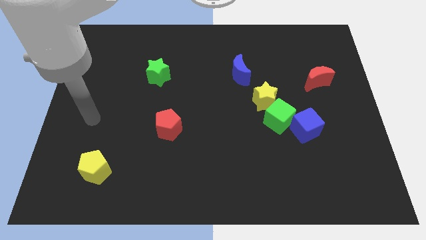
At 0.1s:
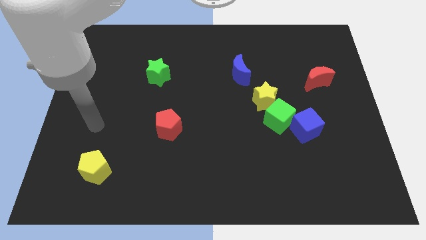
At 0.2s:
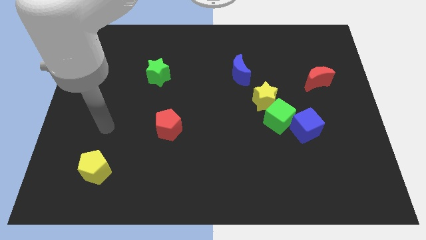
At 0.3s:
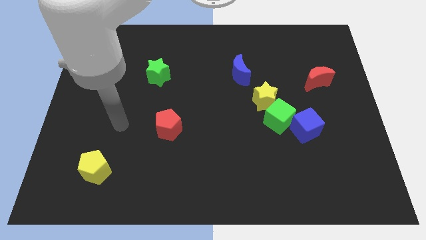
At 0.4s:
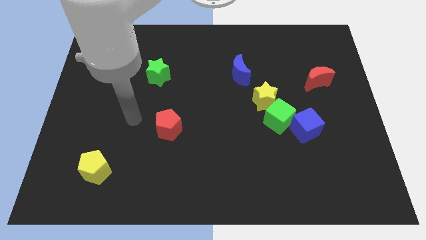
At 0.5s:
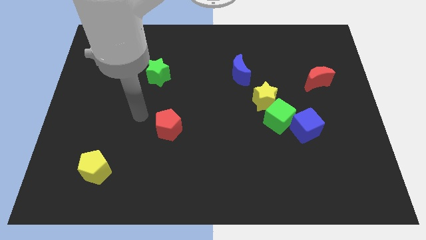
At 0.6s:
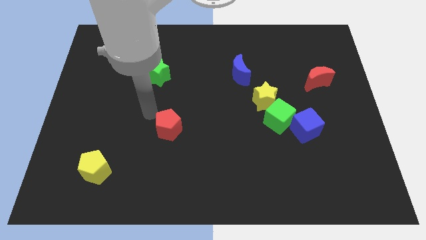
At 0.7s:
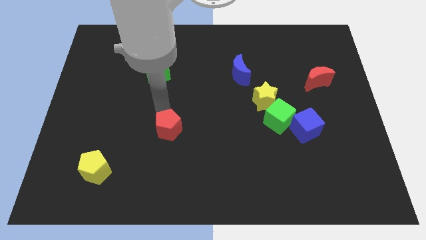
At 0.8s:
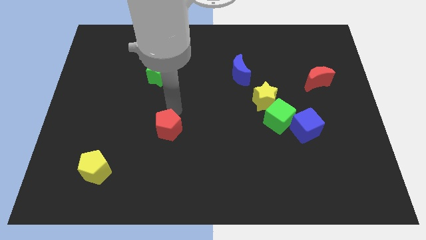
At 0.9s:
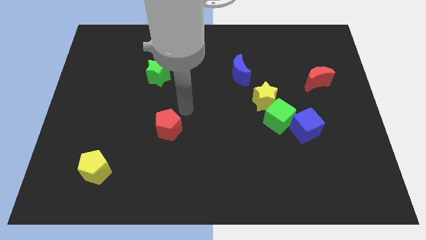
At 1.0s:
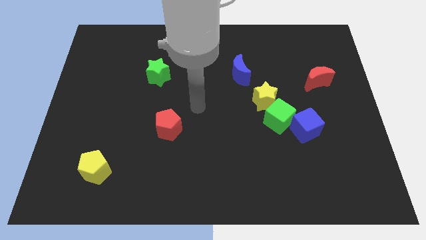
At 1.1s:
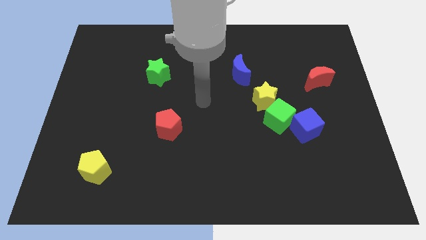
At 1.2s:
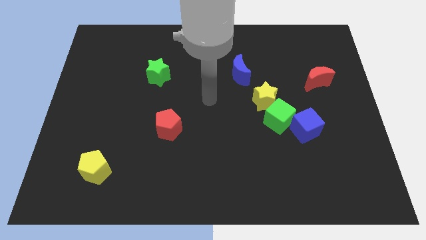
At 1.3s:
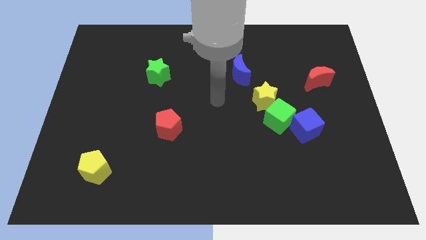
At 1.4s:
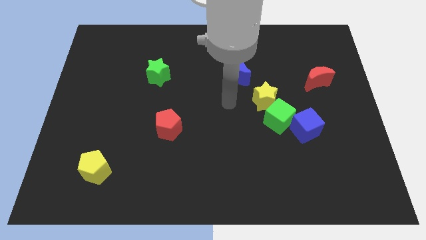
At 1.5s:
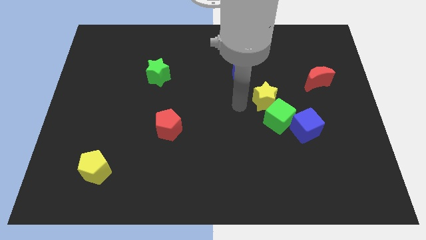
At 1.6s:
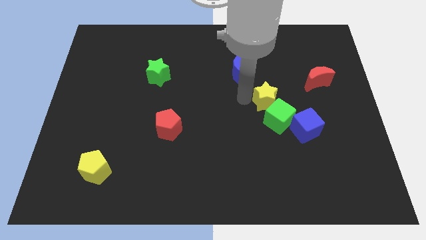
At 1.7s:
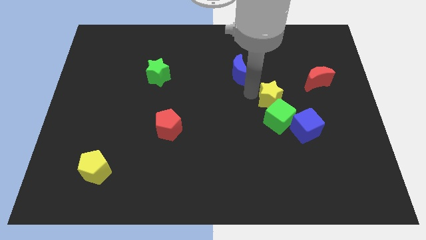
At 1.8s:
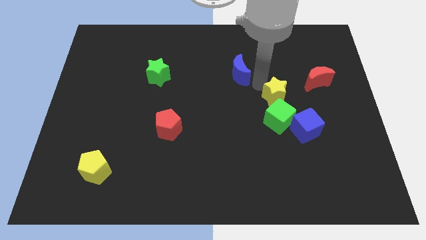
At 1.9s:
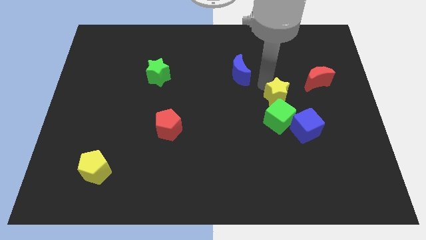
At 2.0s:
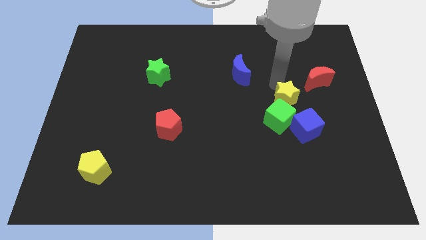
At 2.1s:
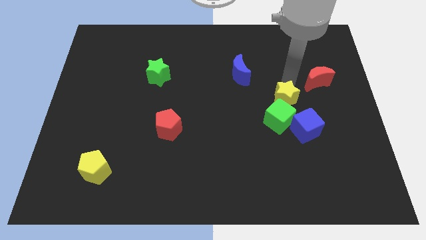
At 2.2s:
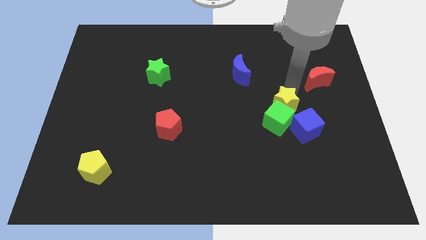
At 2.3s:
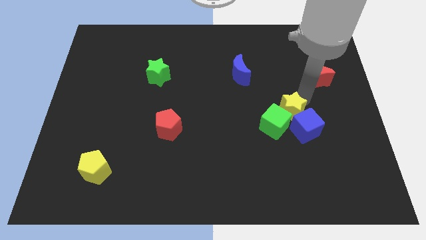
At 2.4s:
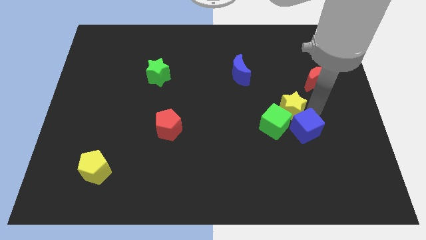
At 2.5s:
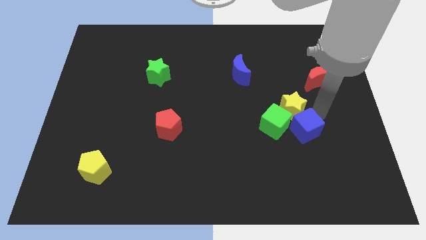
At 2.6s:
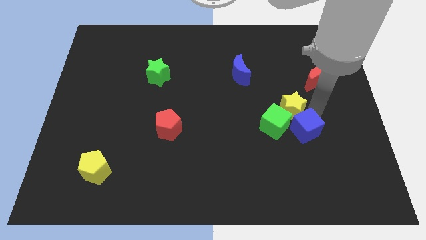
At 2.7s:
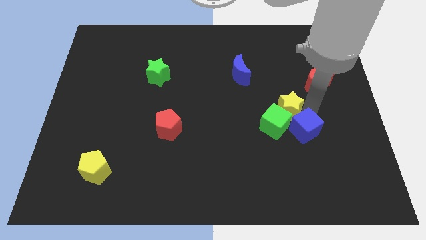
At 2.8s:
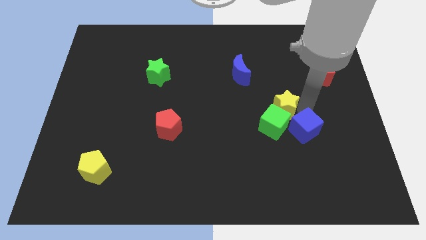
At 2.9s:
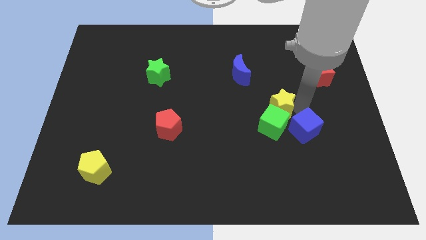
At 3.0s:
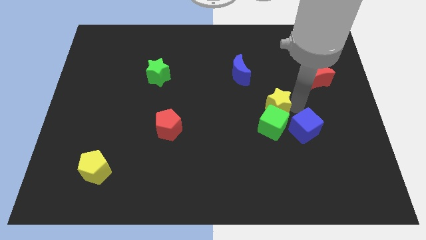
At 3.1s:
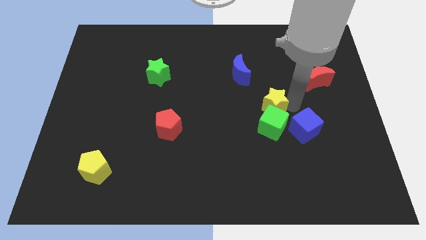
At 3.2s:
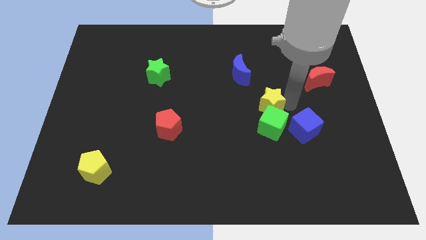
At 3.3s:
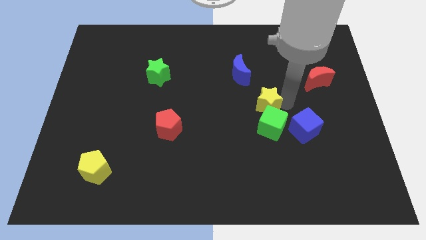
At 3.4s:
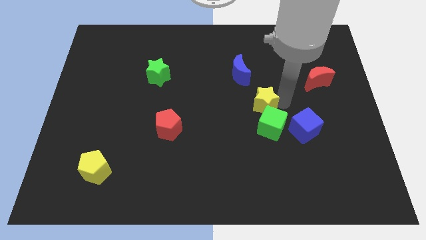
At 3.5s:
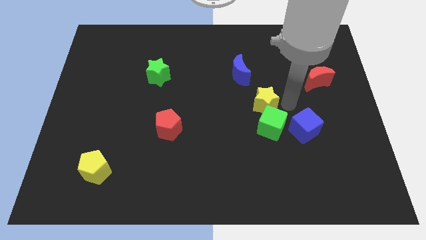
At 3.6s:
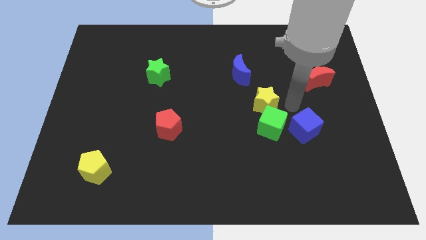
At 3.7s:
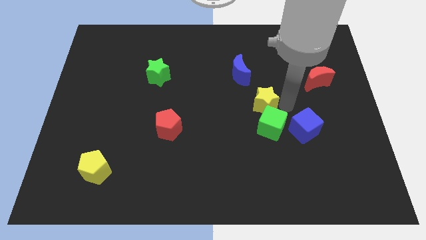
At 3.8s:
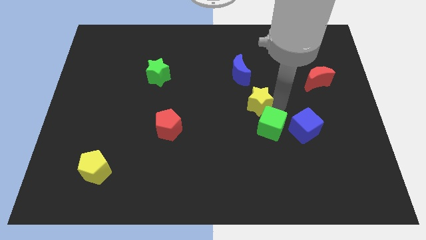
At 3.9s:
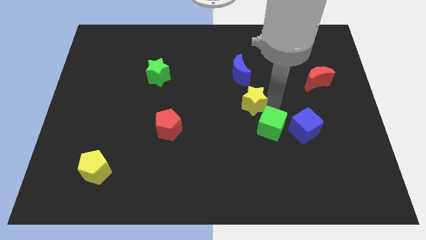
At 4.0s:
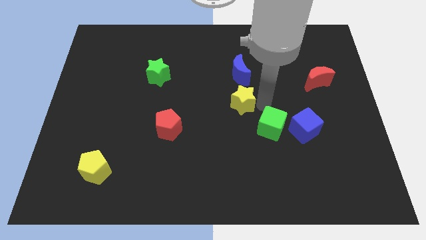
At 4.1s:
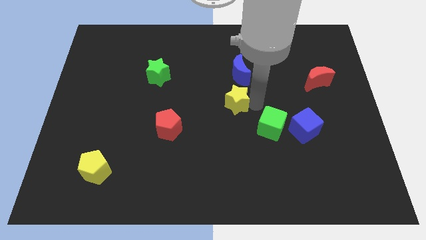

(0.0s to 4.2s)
push the yellow star to the left a little bit

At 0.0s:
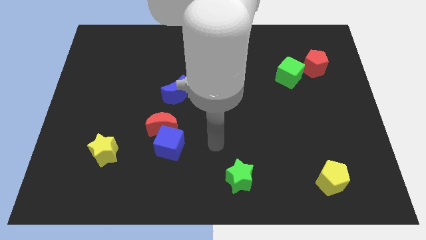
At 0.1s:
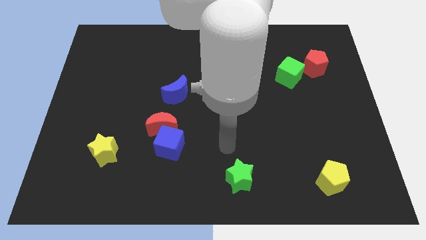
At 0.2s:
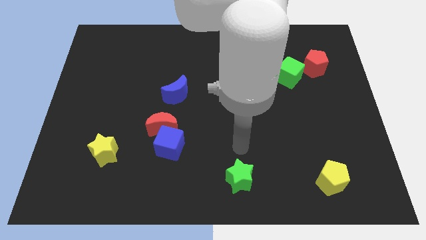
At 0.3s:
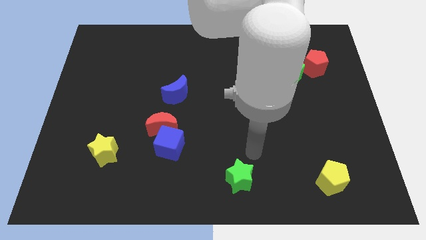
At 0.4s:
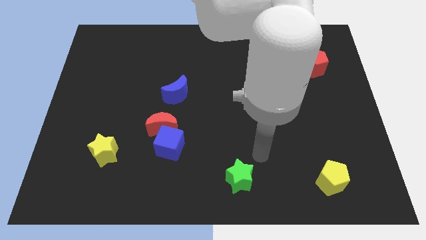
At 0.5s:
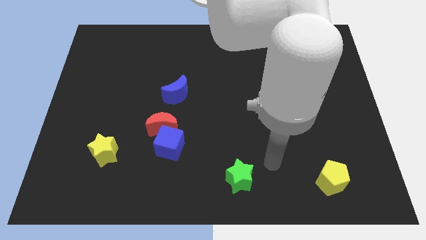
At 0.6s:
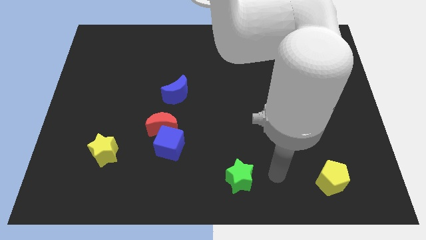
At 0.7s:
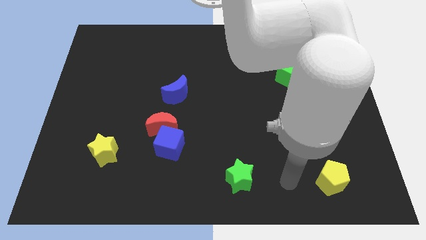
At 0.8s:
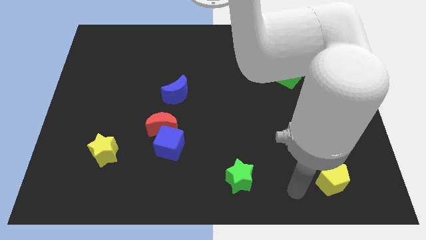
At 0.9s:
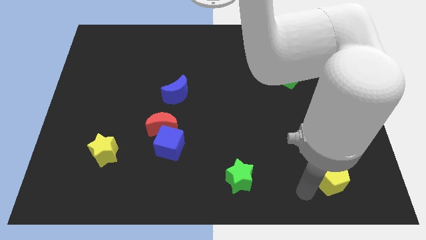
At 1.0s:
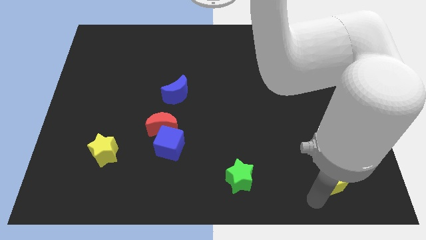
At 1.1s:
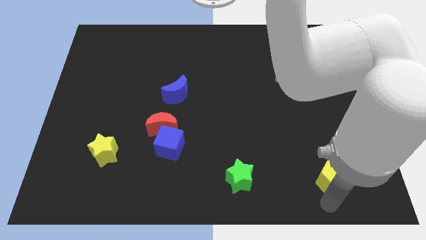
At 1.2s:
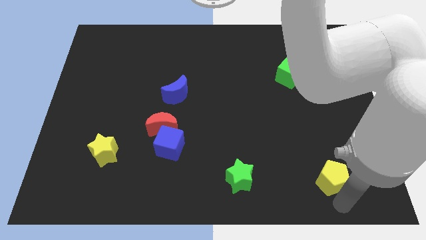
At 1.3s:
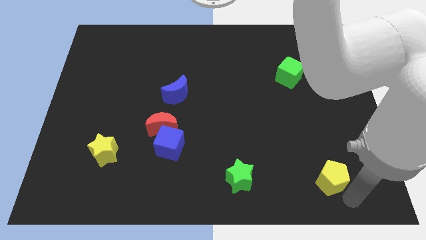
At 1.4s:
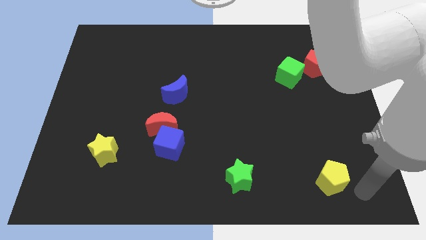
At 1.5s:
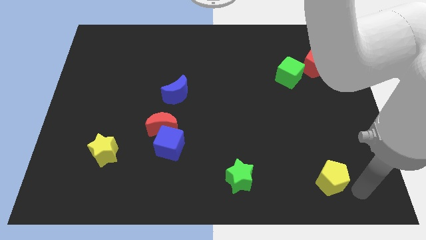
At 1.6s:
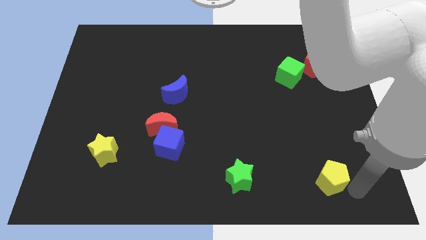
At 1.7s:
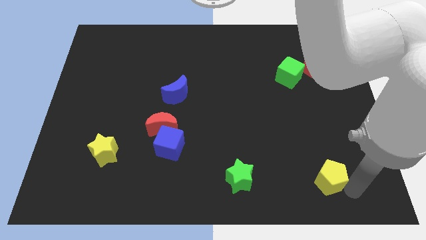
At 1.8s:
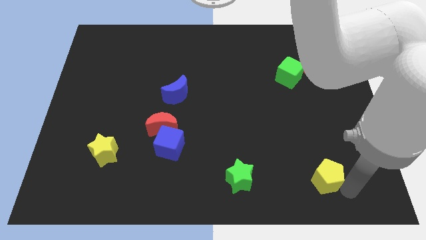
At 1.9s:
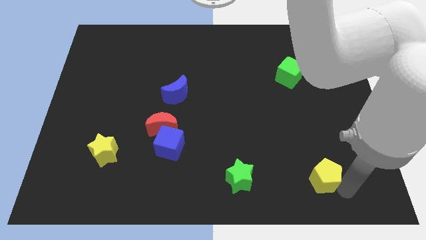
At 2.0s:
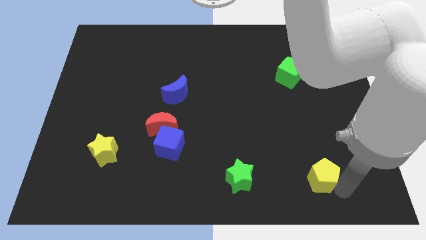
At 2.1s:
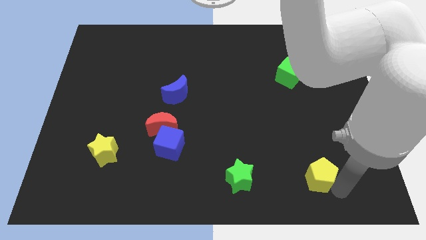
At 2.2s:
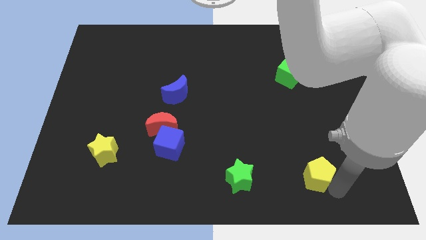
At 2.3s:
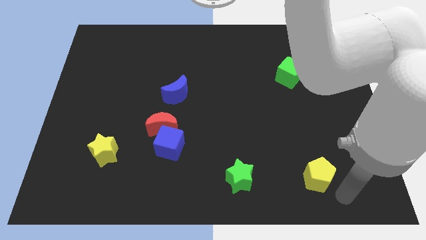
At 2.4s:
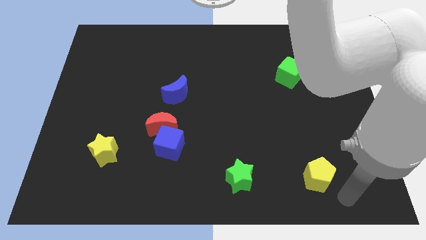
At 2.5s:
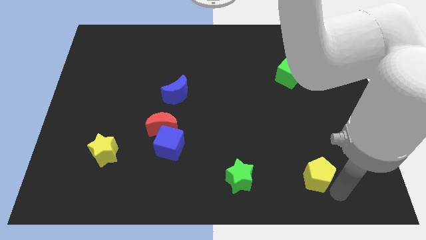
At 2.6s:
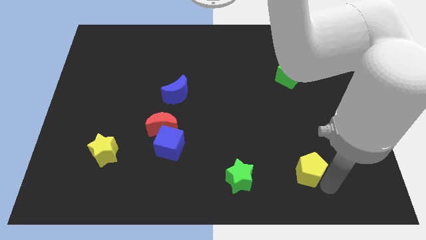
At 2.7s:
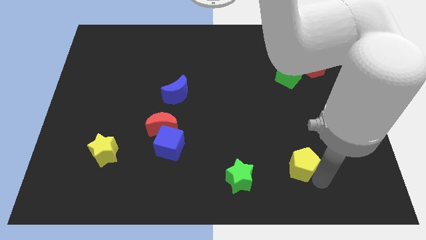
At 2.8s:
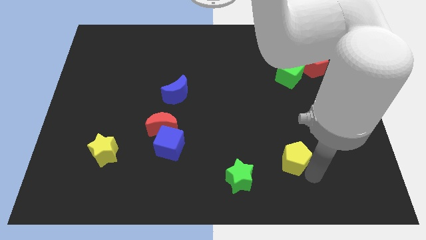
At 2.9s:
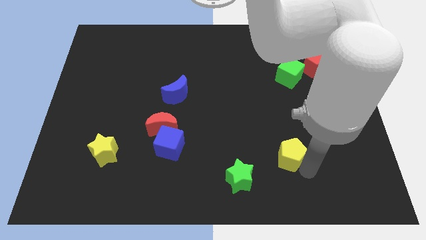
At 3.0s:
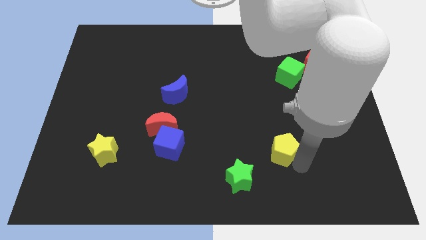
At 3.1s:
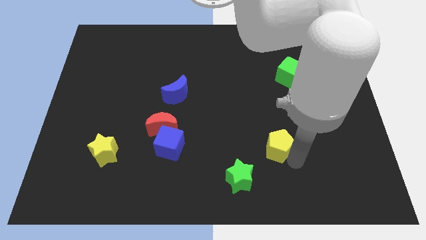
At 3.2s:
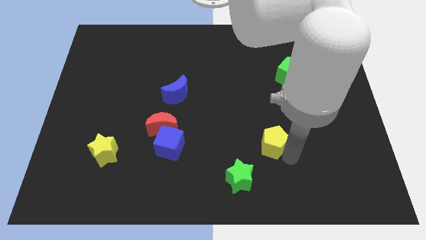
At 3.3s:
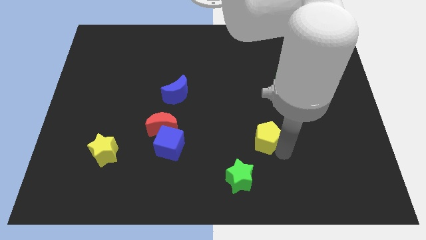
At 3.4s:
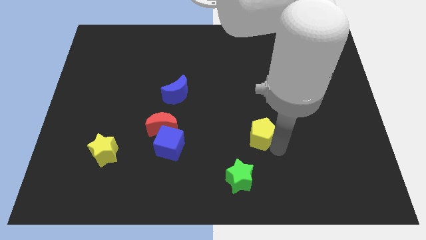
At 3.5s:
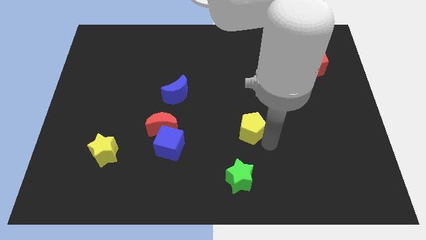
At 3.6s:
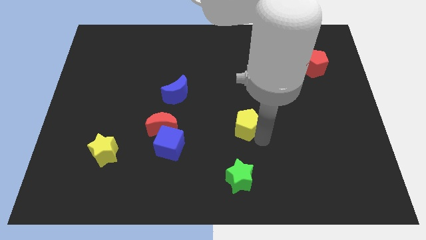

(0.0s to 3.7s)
push the yellow pentagon upwards and to the left

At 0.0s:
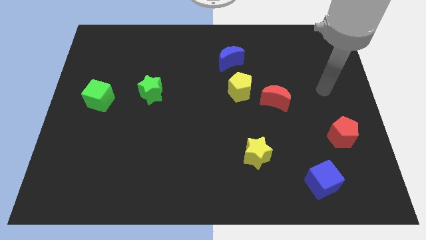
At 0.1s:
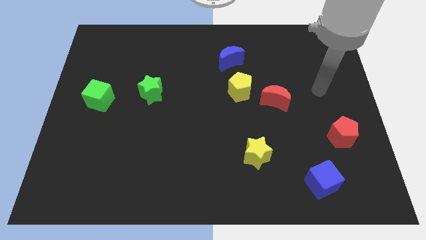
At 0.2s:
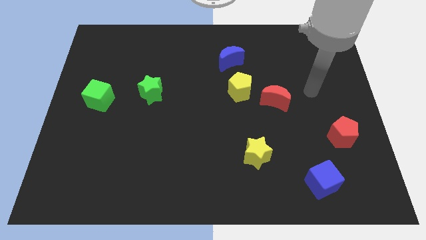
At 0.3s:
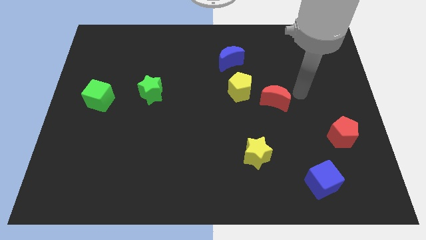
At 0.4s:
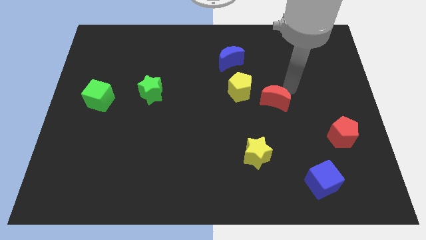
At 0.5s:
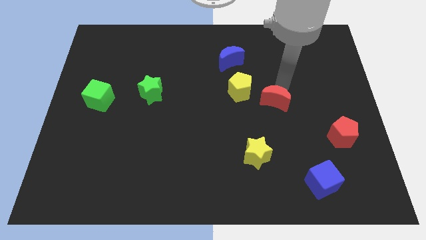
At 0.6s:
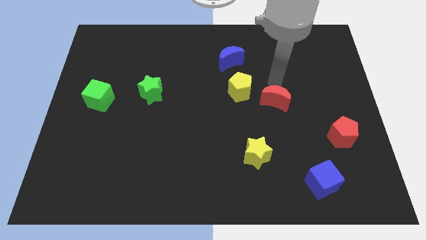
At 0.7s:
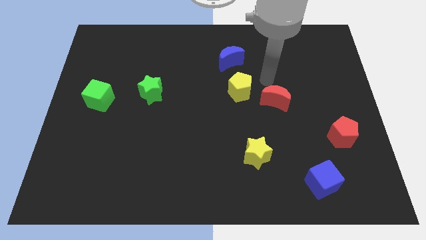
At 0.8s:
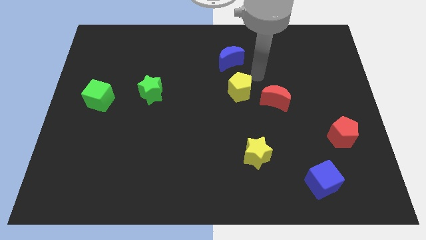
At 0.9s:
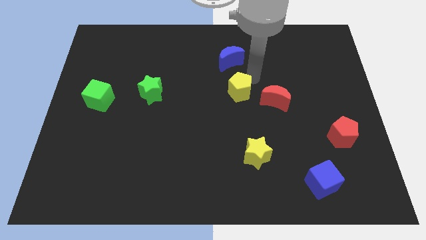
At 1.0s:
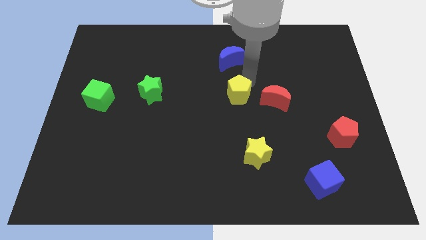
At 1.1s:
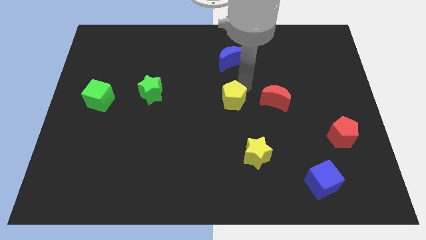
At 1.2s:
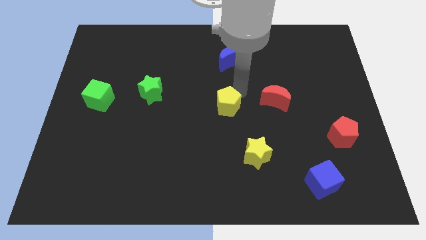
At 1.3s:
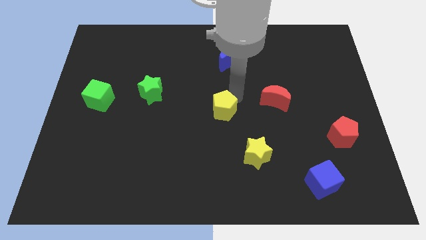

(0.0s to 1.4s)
slide the yellow pentagon downwards and to the left somewhat
